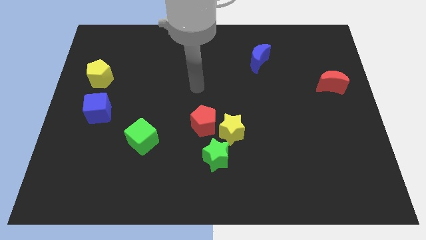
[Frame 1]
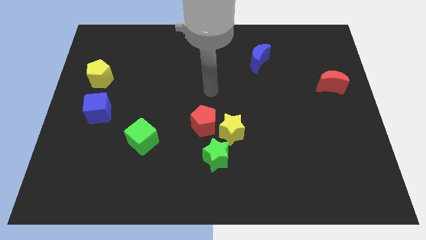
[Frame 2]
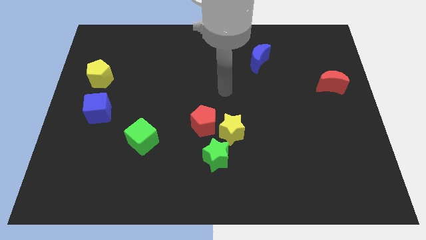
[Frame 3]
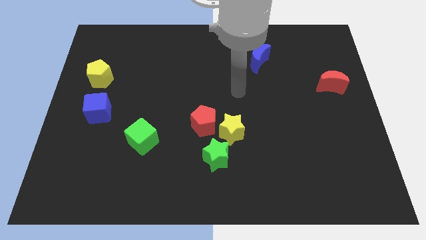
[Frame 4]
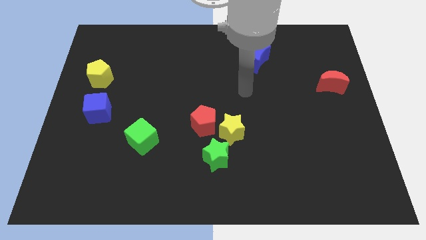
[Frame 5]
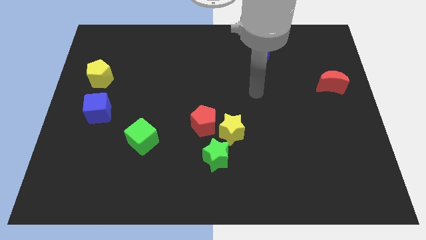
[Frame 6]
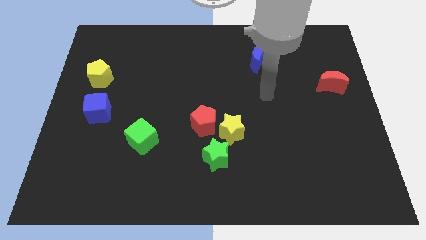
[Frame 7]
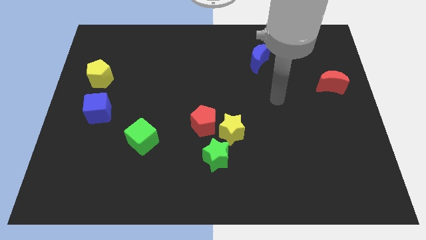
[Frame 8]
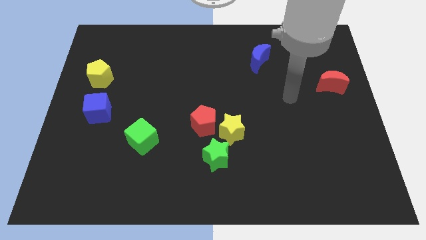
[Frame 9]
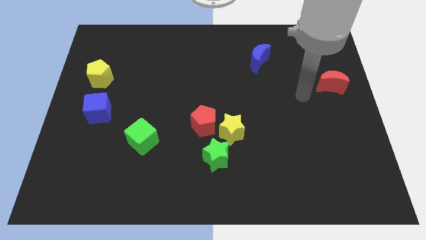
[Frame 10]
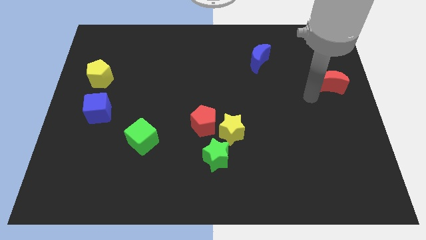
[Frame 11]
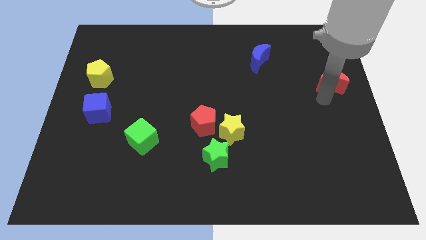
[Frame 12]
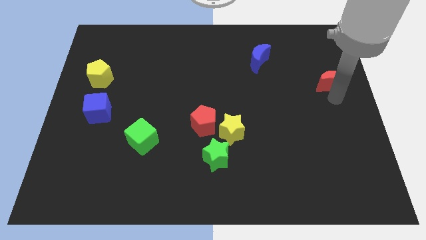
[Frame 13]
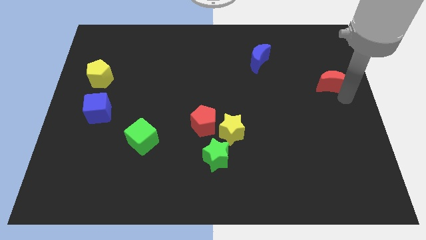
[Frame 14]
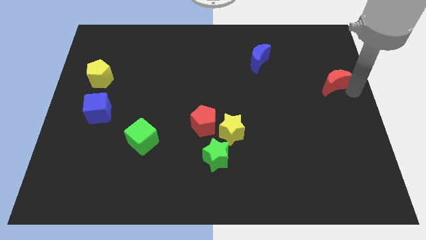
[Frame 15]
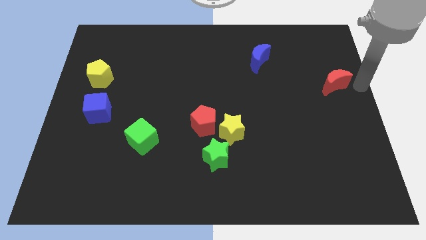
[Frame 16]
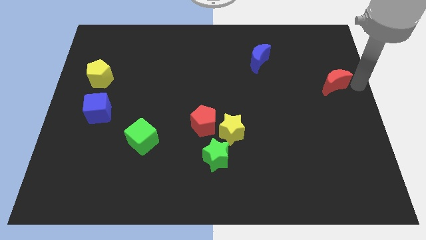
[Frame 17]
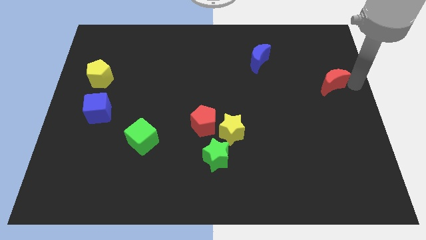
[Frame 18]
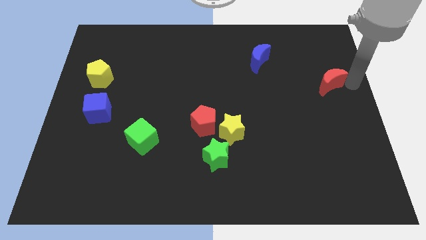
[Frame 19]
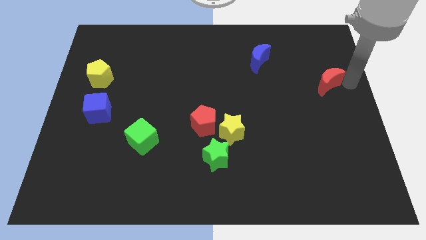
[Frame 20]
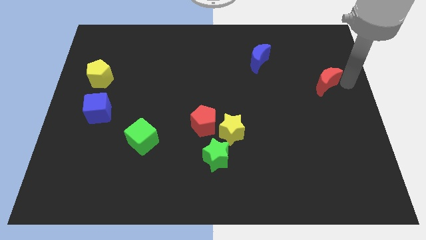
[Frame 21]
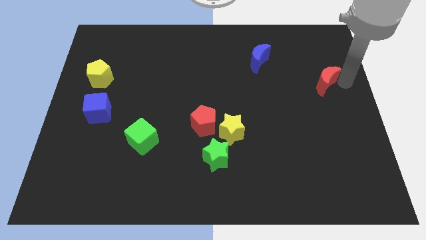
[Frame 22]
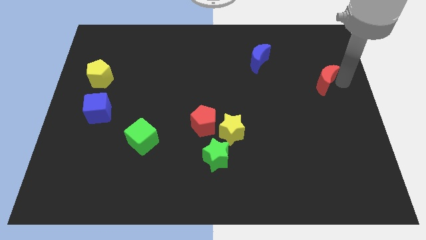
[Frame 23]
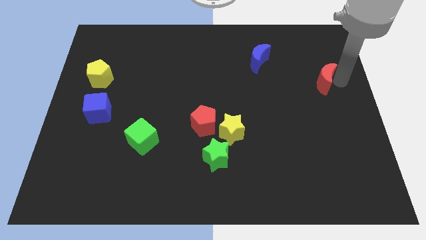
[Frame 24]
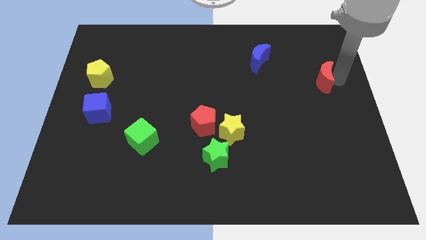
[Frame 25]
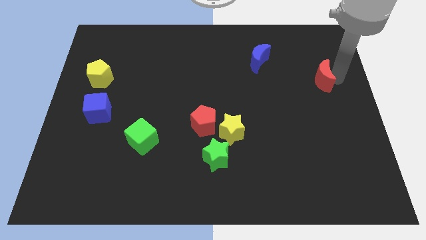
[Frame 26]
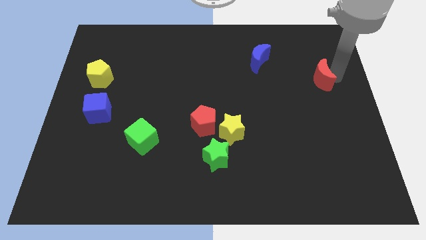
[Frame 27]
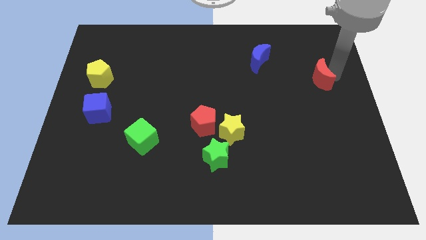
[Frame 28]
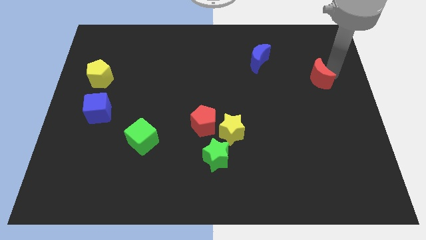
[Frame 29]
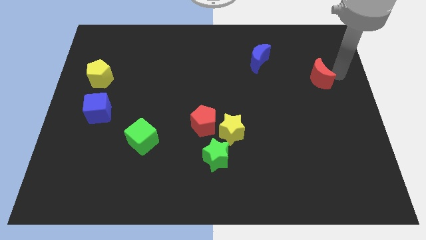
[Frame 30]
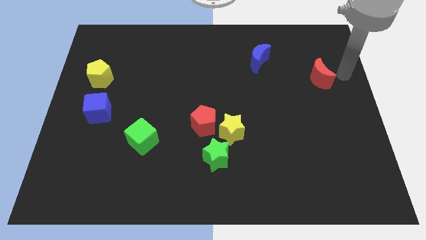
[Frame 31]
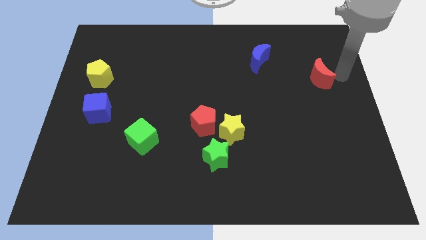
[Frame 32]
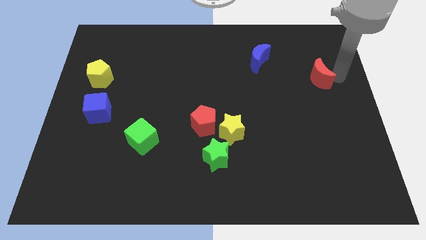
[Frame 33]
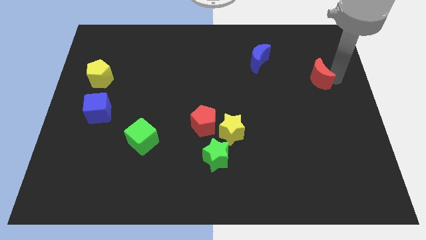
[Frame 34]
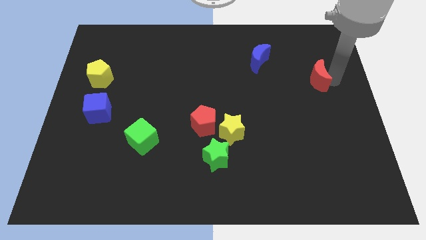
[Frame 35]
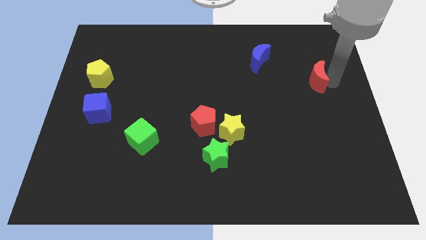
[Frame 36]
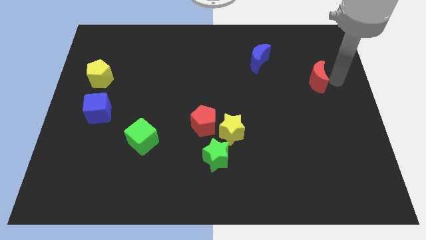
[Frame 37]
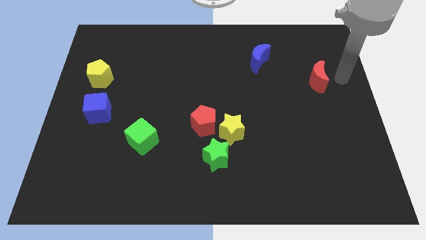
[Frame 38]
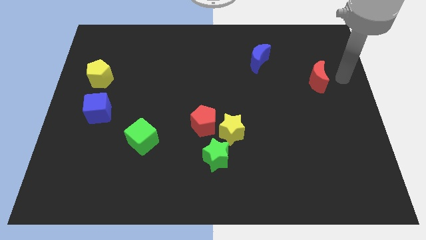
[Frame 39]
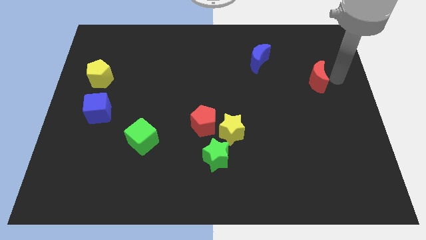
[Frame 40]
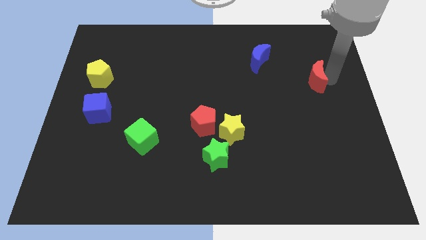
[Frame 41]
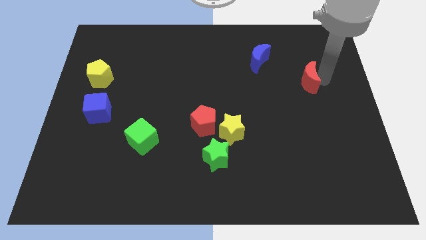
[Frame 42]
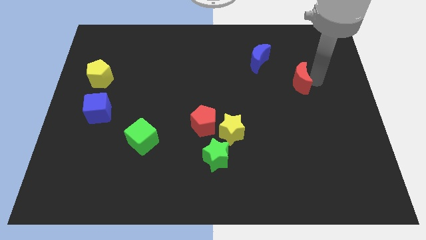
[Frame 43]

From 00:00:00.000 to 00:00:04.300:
push the red moon a bit to the left

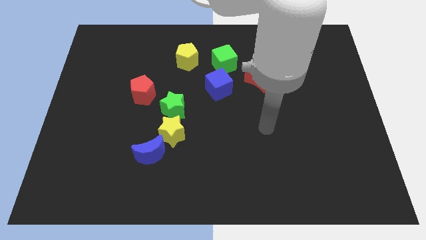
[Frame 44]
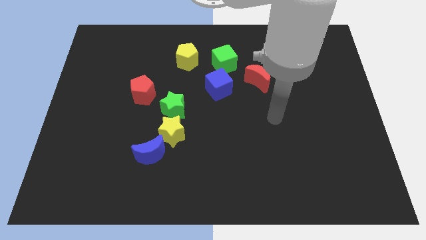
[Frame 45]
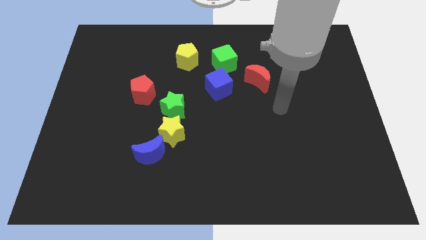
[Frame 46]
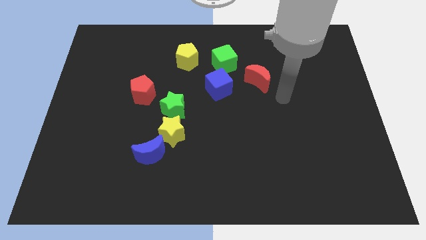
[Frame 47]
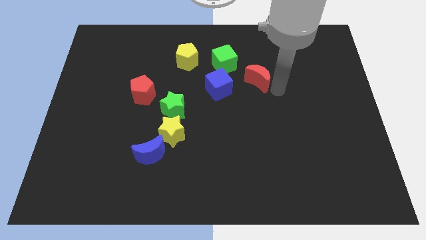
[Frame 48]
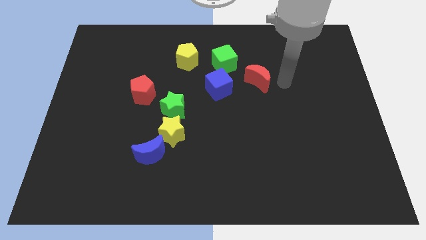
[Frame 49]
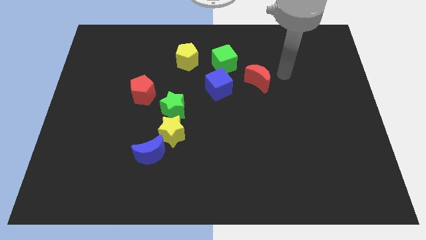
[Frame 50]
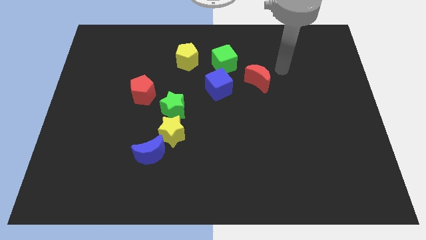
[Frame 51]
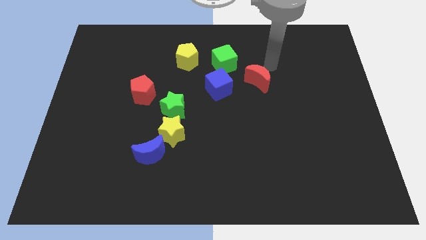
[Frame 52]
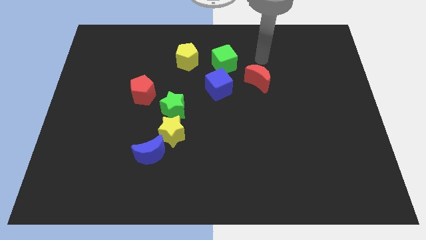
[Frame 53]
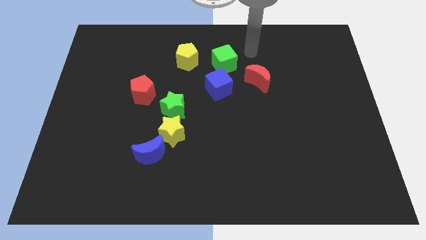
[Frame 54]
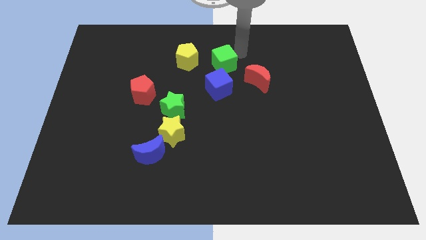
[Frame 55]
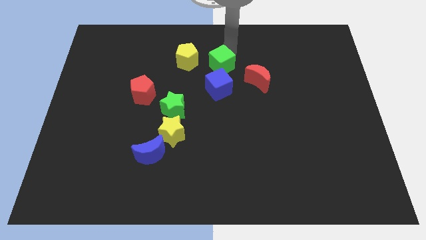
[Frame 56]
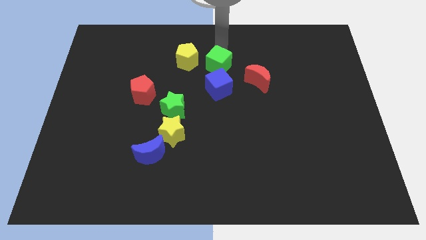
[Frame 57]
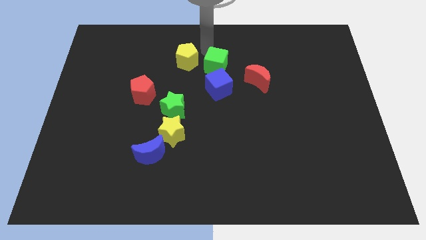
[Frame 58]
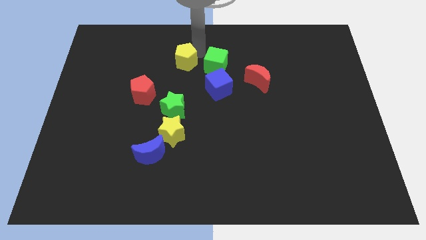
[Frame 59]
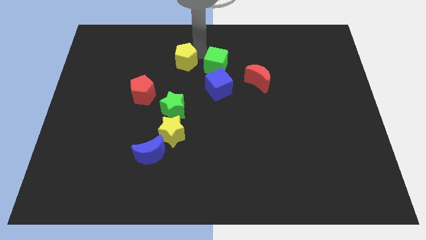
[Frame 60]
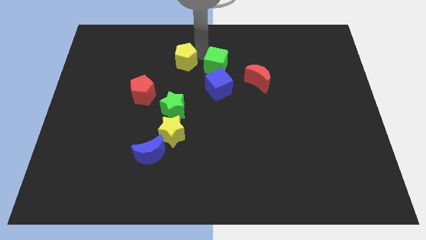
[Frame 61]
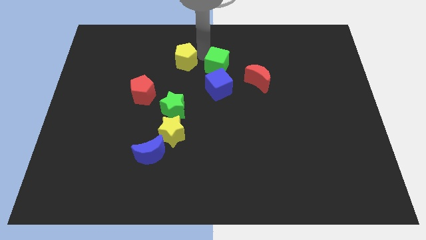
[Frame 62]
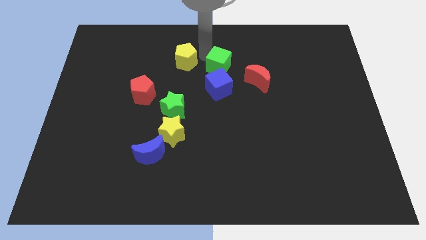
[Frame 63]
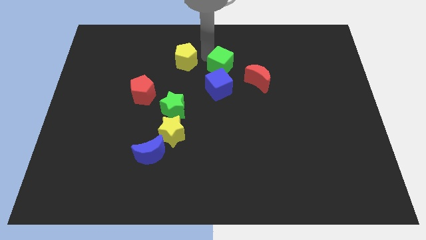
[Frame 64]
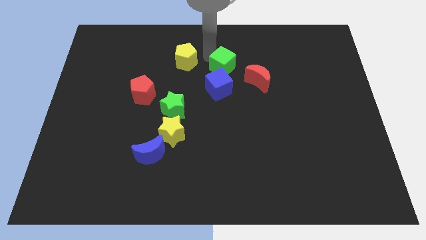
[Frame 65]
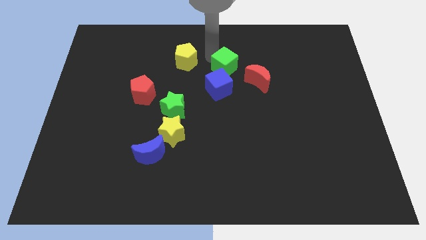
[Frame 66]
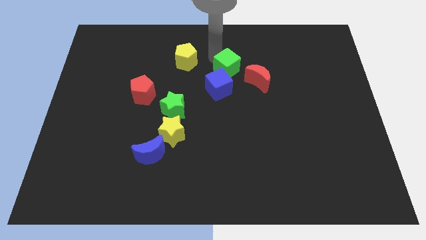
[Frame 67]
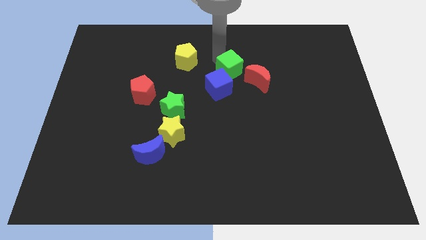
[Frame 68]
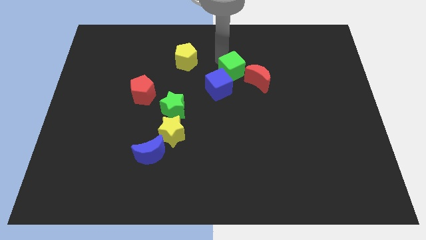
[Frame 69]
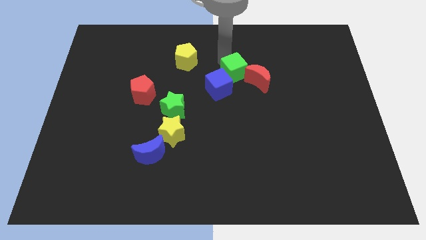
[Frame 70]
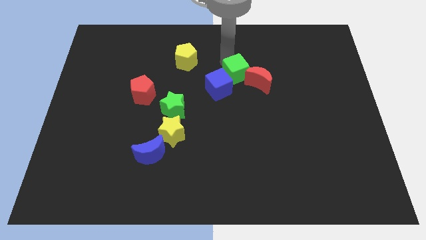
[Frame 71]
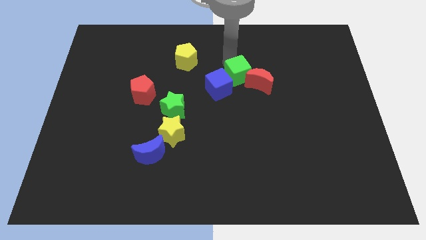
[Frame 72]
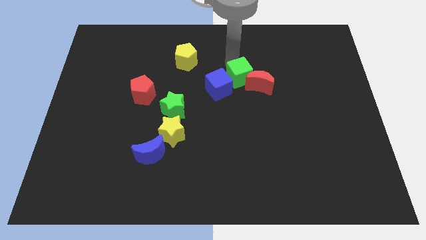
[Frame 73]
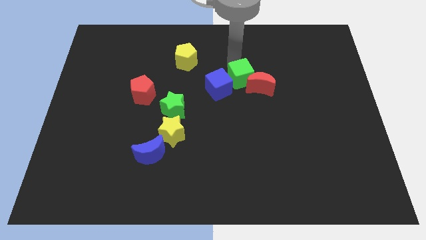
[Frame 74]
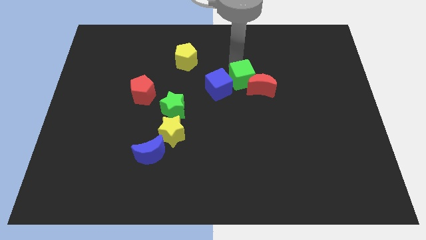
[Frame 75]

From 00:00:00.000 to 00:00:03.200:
slightly slide the green cube downwards and then right

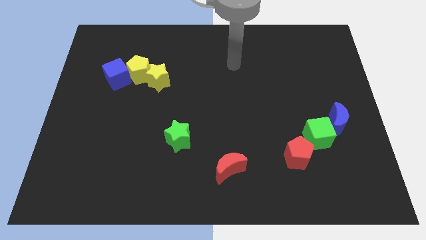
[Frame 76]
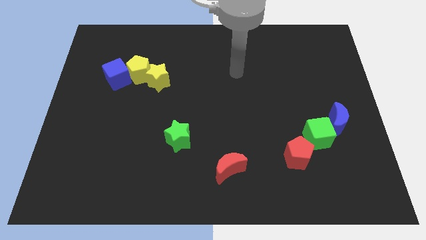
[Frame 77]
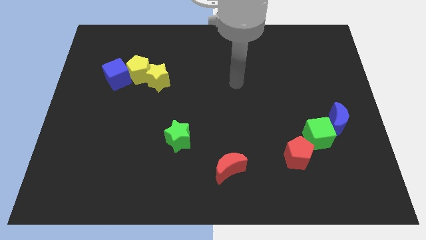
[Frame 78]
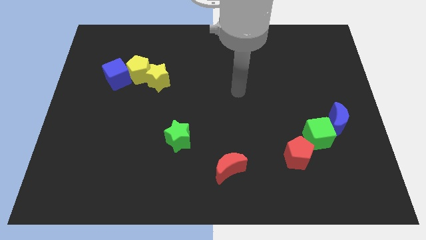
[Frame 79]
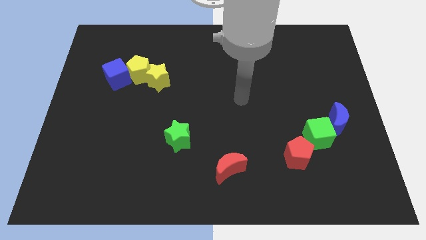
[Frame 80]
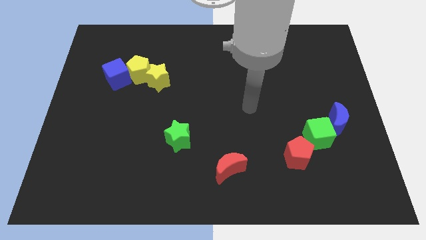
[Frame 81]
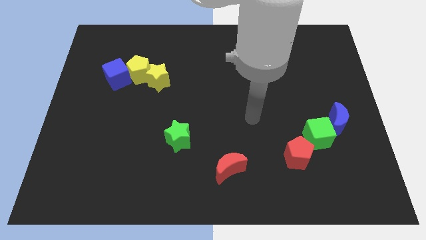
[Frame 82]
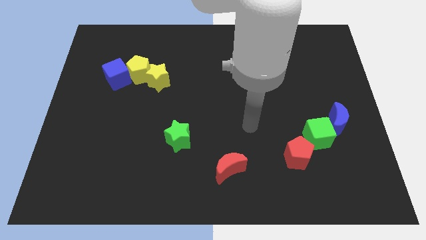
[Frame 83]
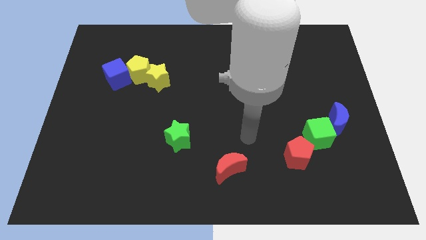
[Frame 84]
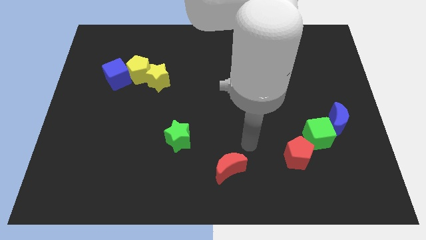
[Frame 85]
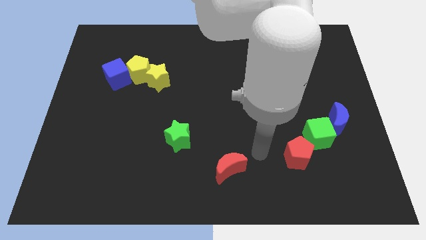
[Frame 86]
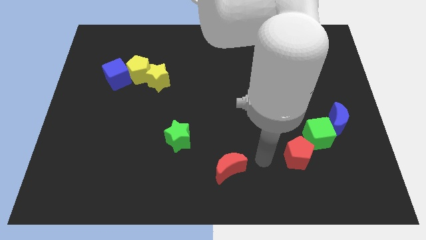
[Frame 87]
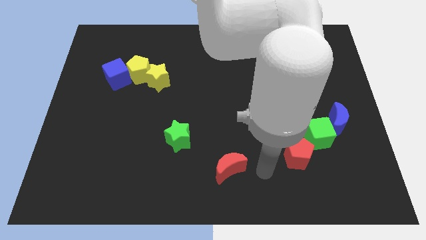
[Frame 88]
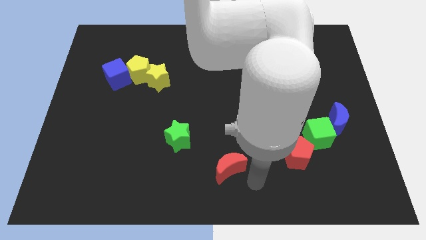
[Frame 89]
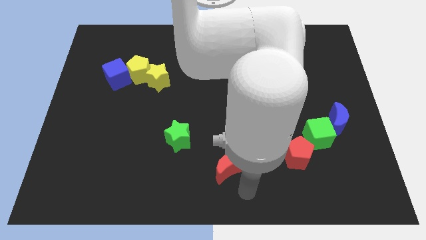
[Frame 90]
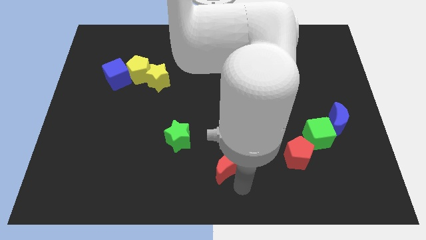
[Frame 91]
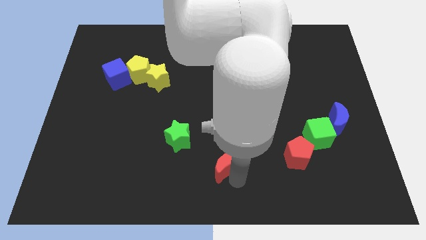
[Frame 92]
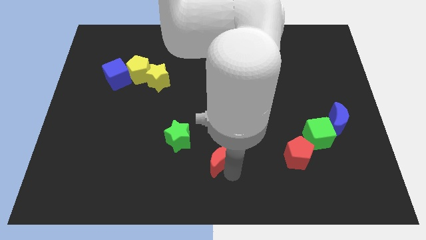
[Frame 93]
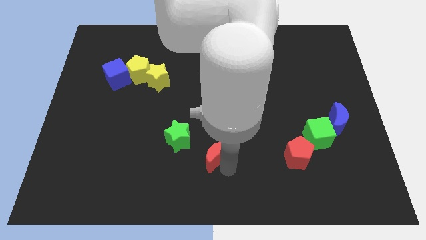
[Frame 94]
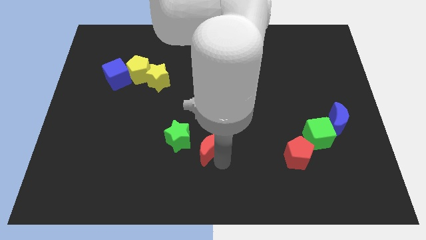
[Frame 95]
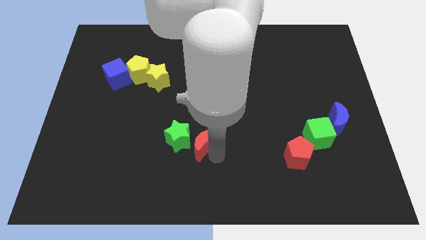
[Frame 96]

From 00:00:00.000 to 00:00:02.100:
move the red moon diagonally up and to the left a little
